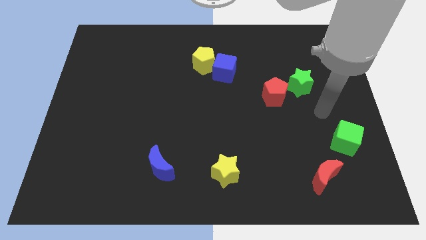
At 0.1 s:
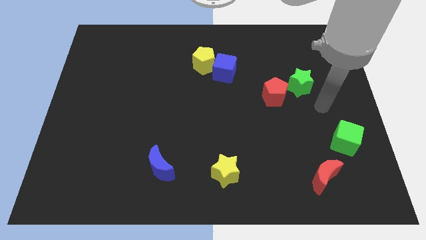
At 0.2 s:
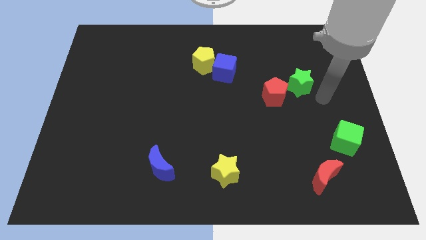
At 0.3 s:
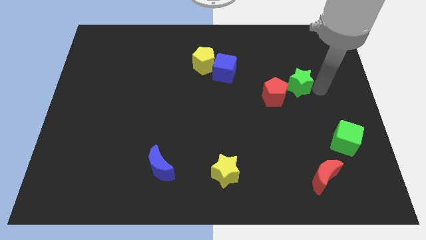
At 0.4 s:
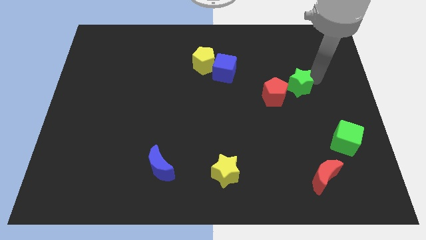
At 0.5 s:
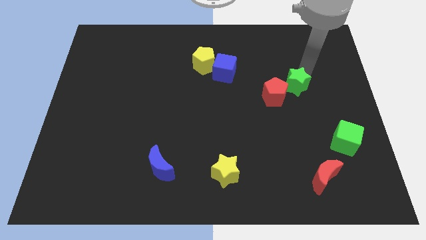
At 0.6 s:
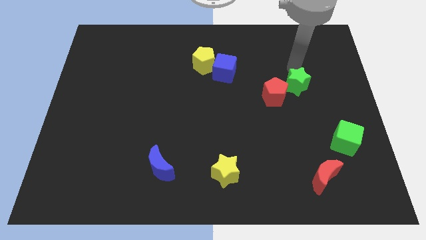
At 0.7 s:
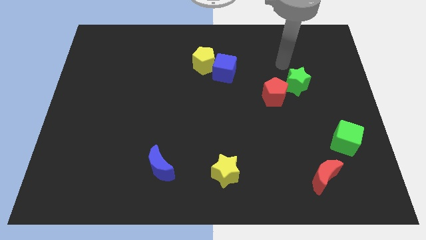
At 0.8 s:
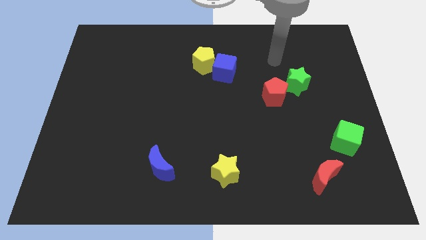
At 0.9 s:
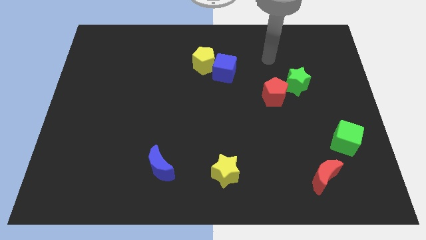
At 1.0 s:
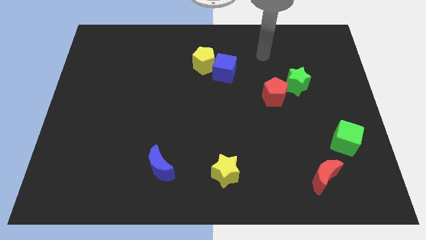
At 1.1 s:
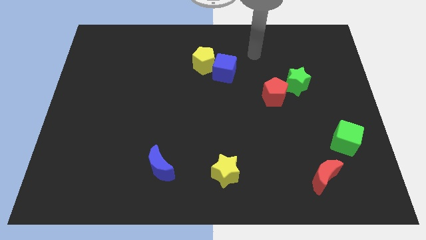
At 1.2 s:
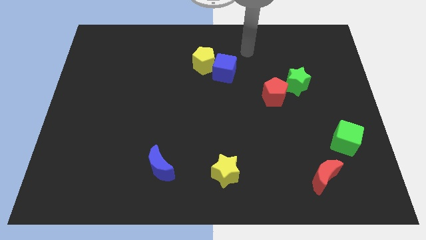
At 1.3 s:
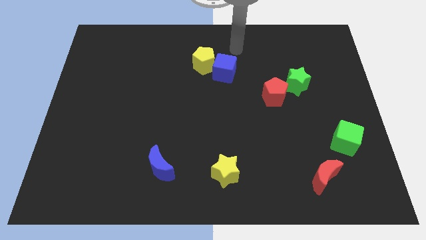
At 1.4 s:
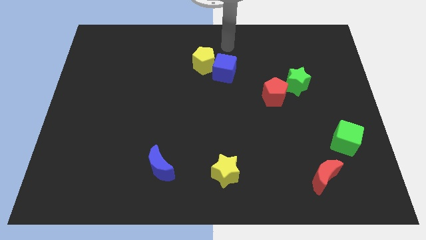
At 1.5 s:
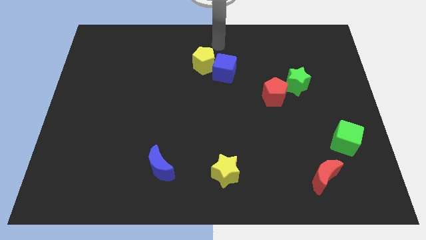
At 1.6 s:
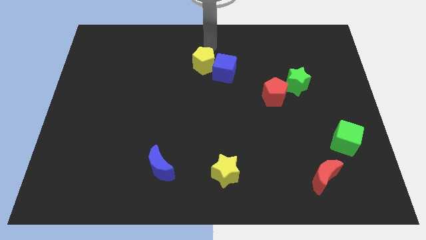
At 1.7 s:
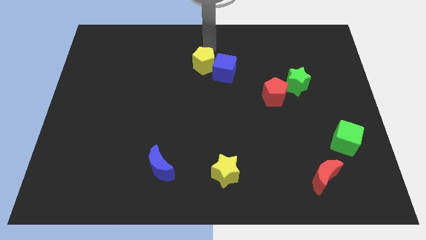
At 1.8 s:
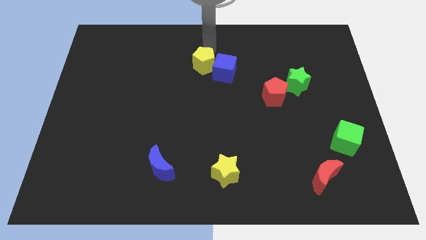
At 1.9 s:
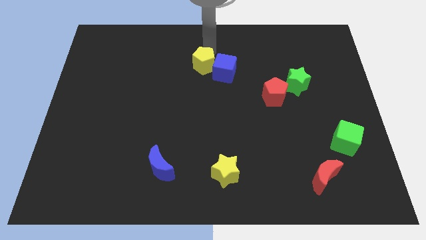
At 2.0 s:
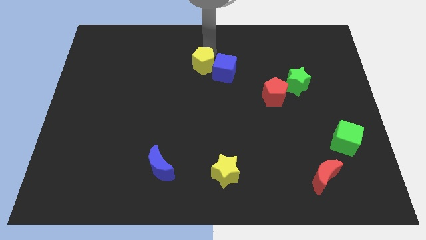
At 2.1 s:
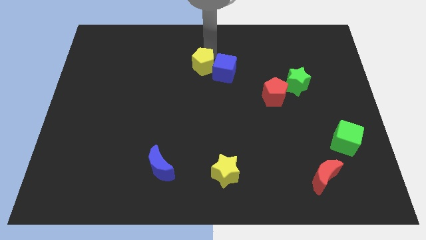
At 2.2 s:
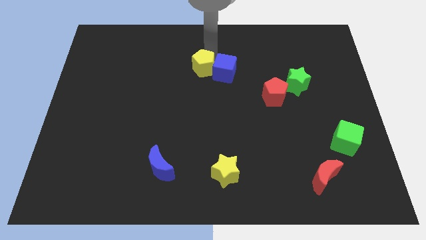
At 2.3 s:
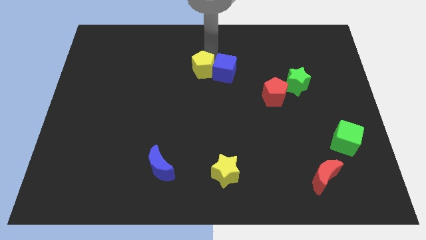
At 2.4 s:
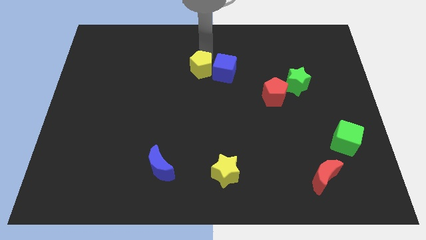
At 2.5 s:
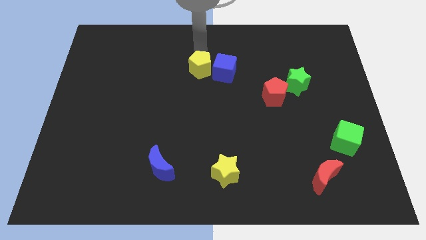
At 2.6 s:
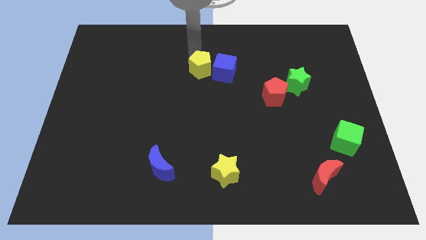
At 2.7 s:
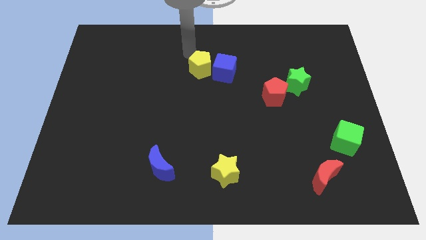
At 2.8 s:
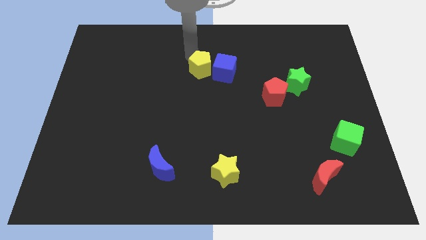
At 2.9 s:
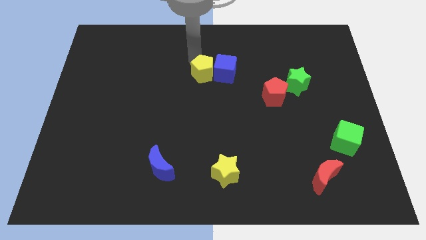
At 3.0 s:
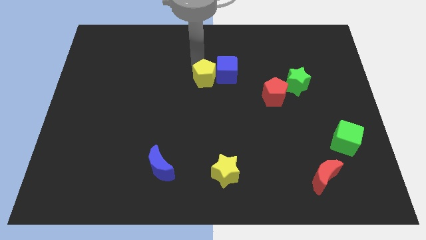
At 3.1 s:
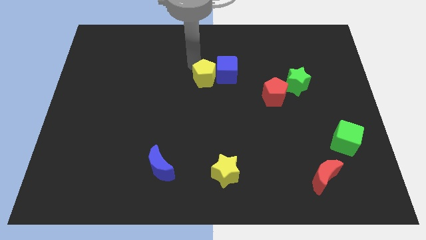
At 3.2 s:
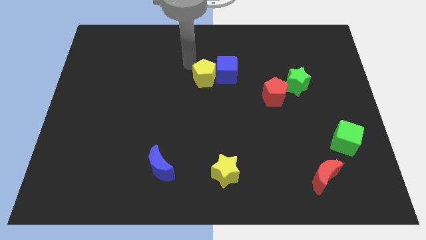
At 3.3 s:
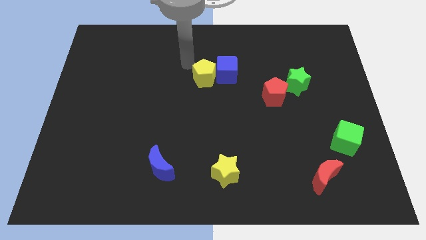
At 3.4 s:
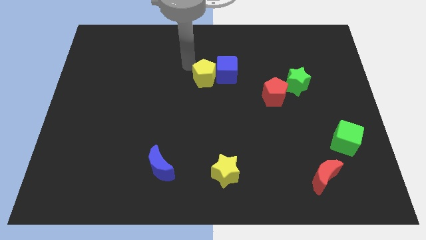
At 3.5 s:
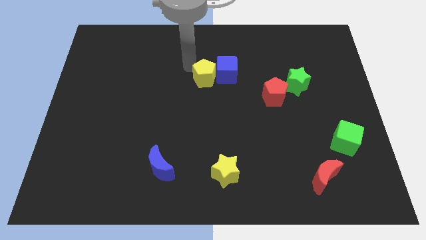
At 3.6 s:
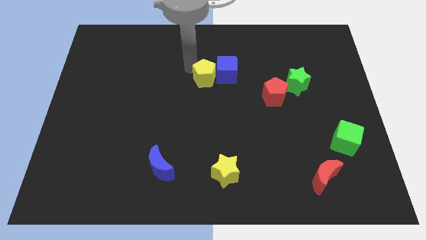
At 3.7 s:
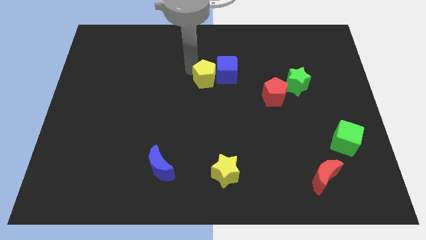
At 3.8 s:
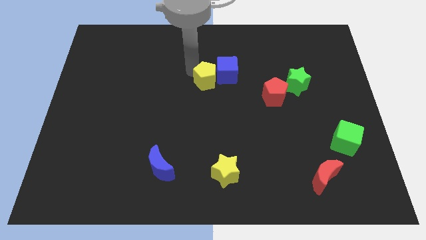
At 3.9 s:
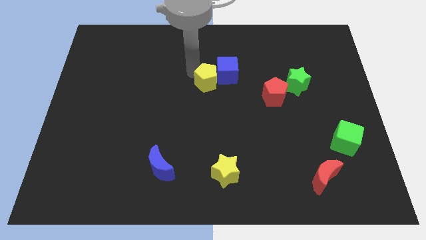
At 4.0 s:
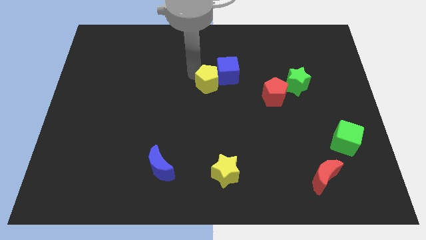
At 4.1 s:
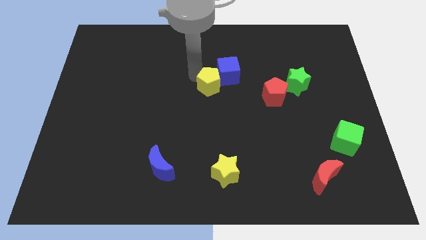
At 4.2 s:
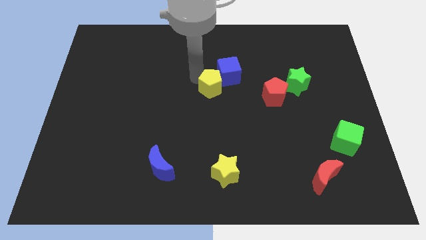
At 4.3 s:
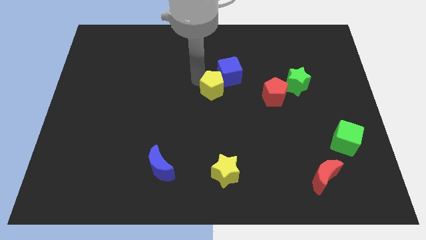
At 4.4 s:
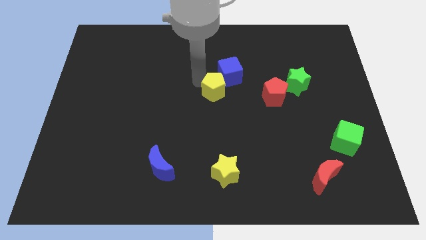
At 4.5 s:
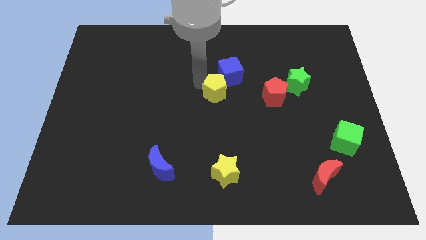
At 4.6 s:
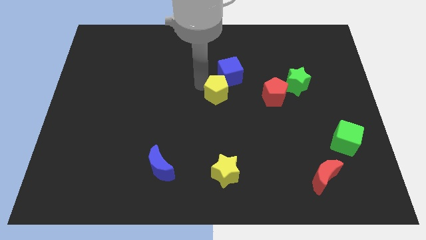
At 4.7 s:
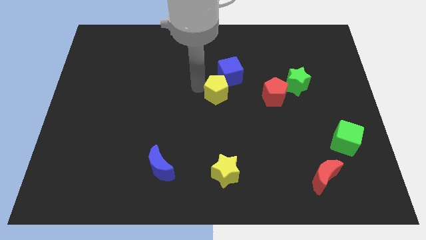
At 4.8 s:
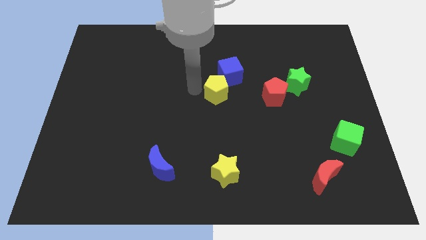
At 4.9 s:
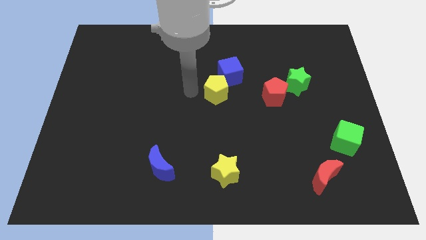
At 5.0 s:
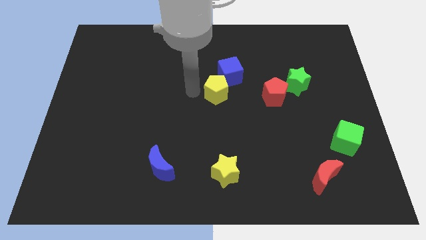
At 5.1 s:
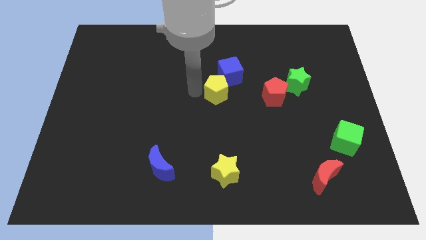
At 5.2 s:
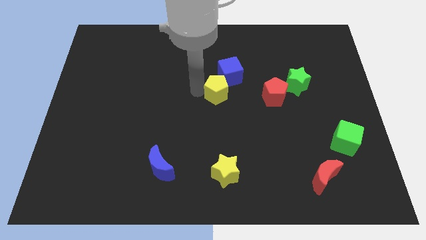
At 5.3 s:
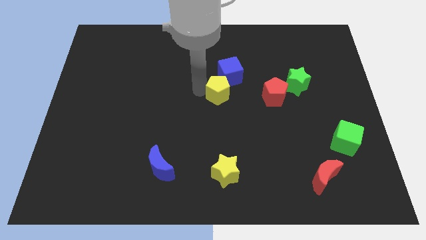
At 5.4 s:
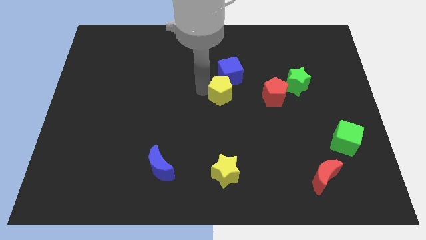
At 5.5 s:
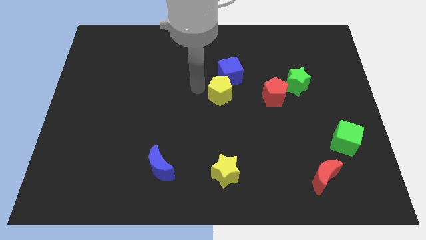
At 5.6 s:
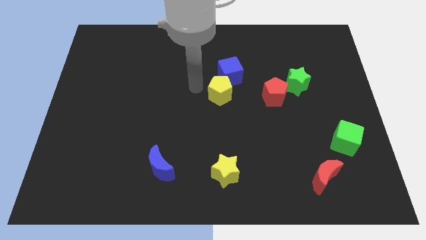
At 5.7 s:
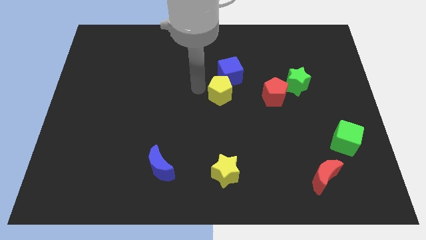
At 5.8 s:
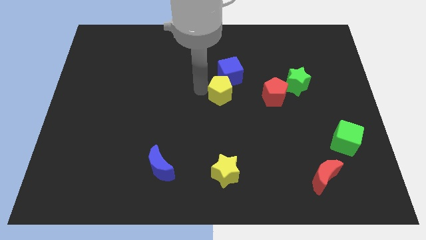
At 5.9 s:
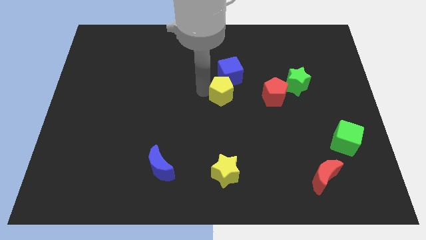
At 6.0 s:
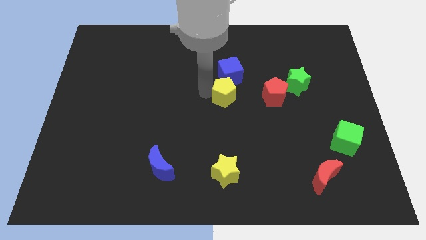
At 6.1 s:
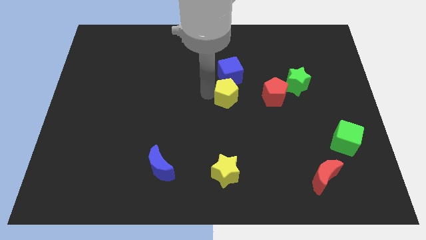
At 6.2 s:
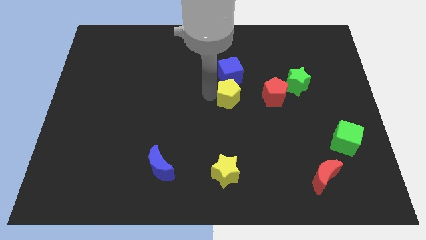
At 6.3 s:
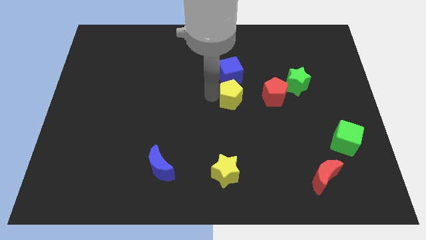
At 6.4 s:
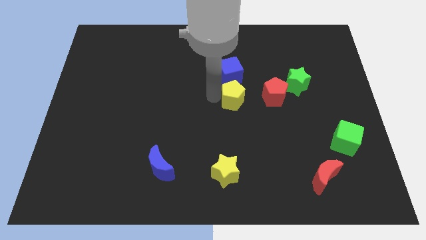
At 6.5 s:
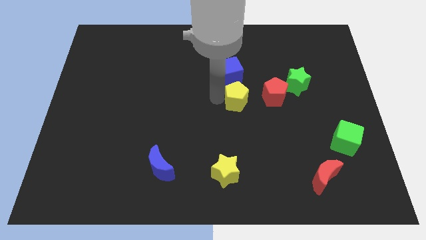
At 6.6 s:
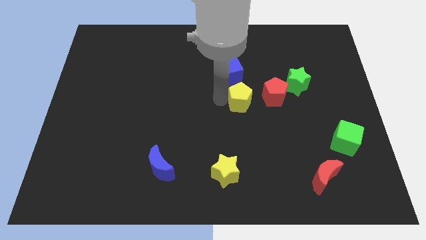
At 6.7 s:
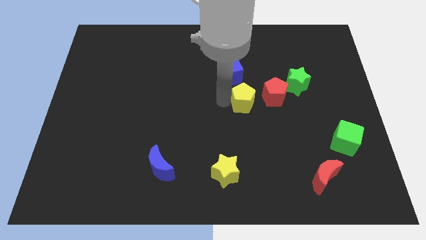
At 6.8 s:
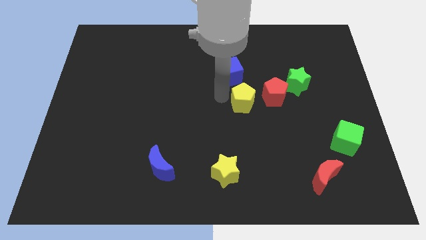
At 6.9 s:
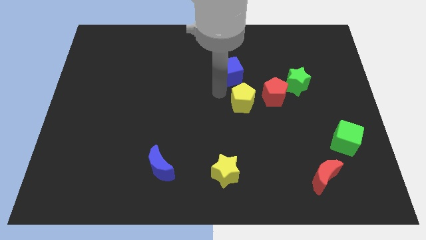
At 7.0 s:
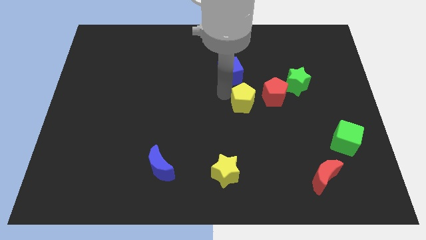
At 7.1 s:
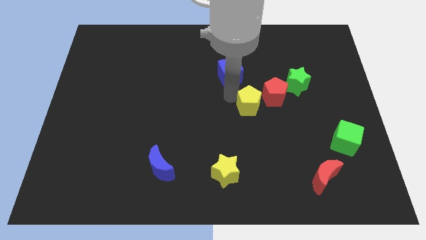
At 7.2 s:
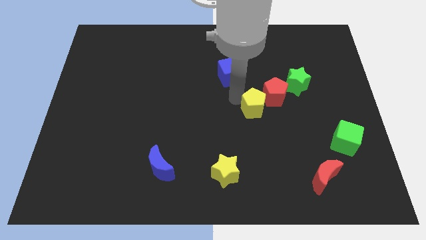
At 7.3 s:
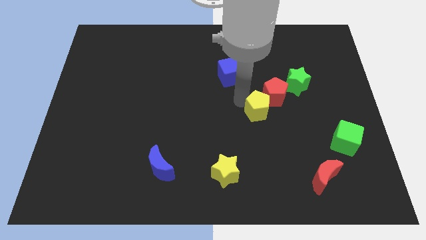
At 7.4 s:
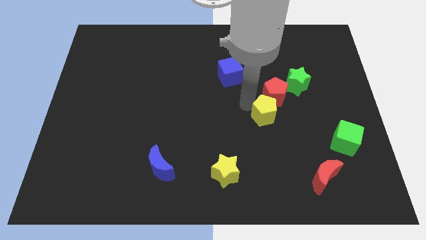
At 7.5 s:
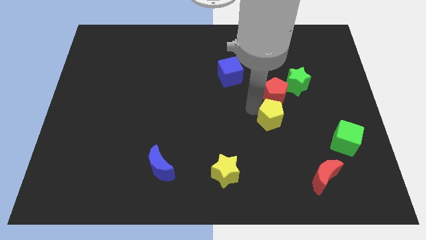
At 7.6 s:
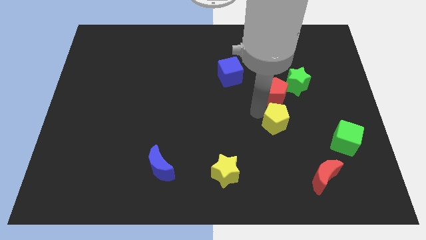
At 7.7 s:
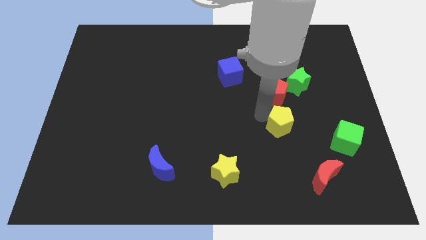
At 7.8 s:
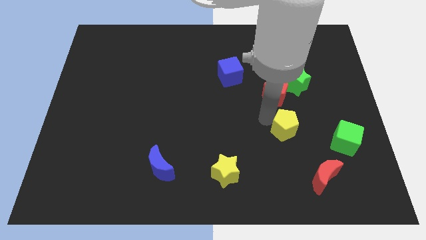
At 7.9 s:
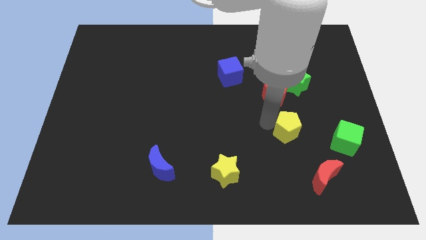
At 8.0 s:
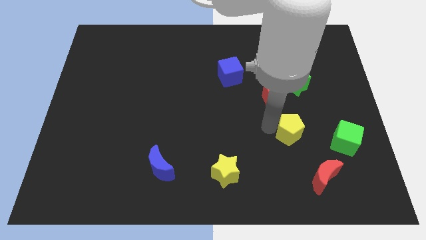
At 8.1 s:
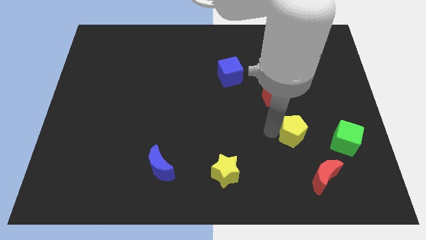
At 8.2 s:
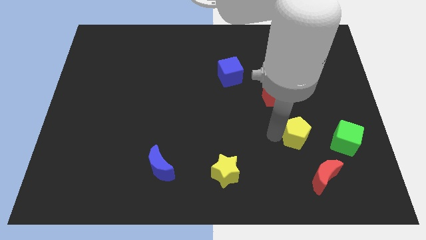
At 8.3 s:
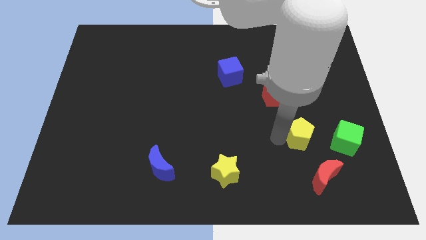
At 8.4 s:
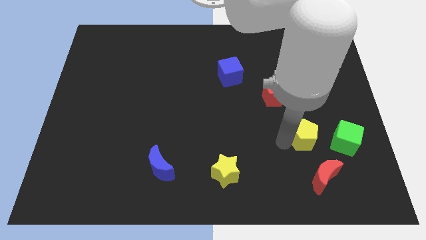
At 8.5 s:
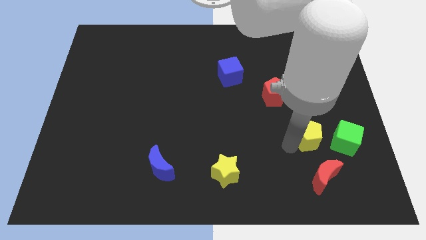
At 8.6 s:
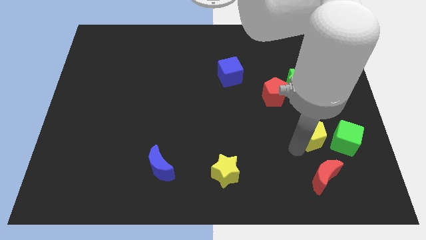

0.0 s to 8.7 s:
slide the yellow pentagon diagonally up and to the left of the green cube
